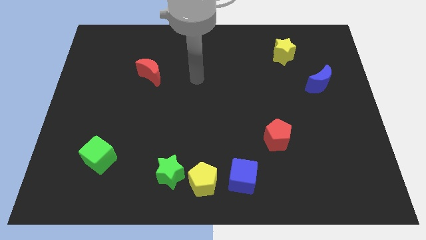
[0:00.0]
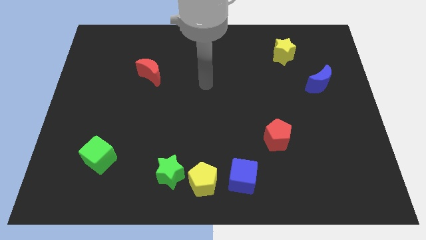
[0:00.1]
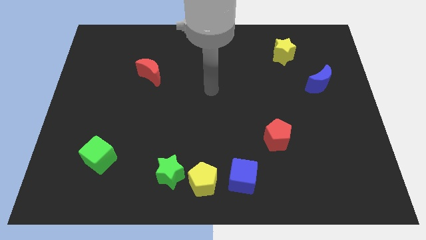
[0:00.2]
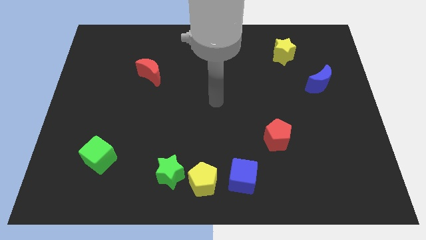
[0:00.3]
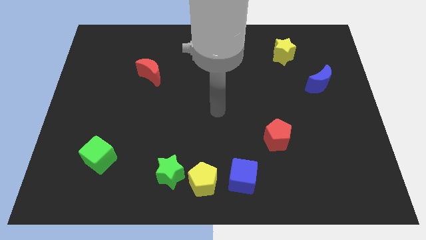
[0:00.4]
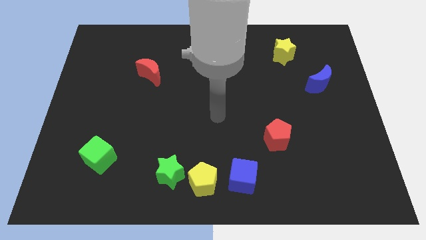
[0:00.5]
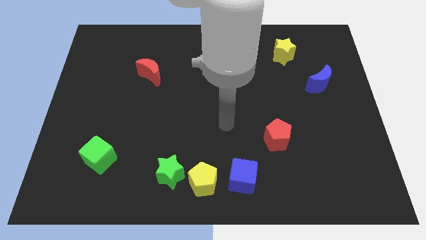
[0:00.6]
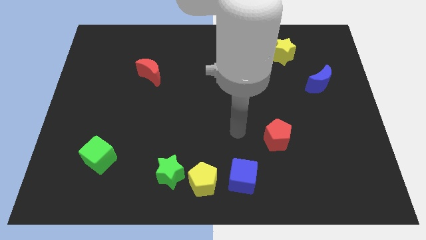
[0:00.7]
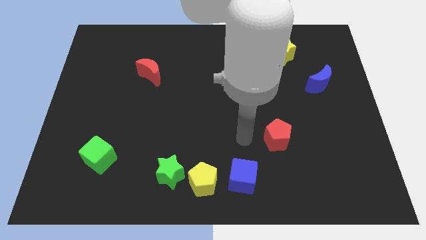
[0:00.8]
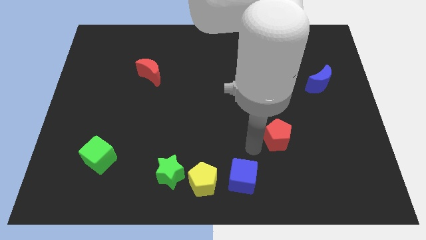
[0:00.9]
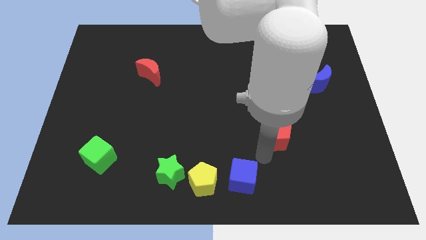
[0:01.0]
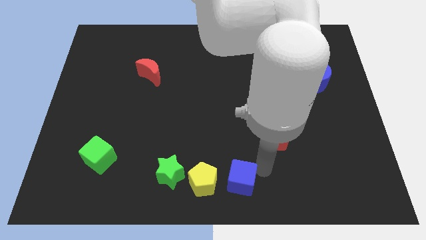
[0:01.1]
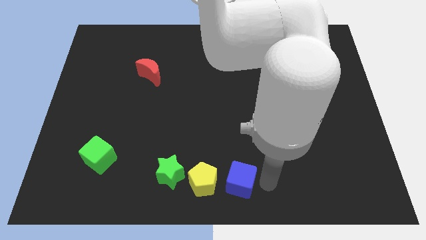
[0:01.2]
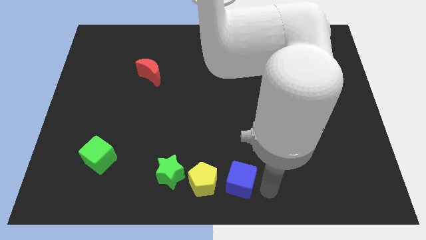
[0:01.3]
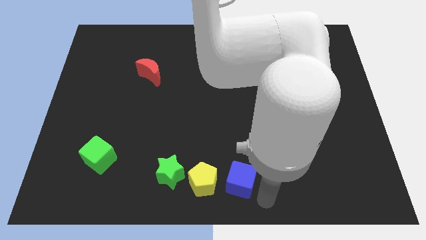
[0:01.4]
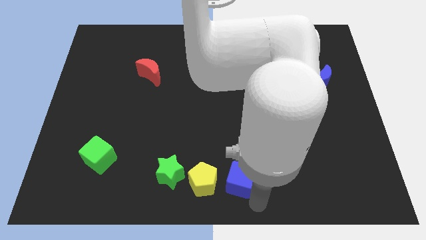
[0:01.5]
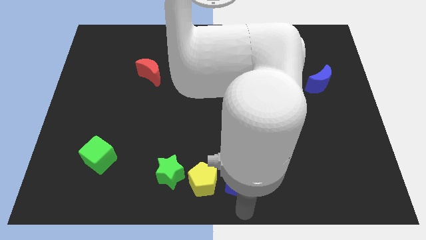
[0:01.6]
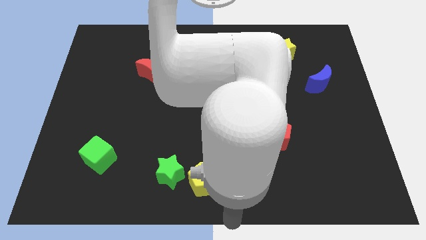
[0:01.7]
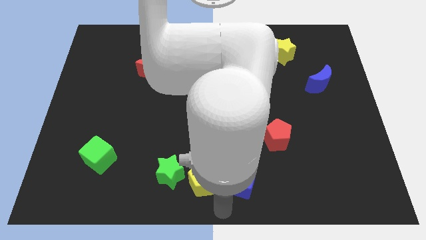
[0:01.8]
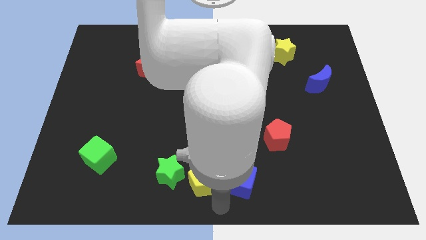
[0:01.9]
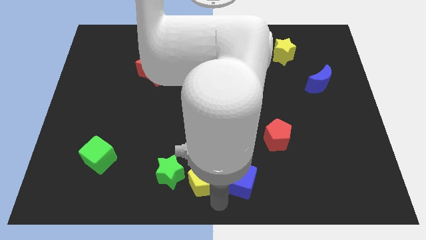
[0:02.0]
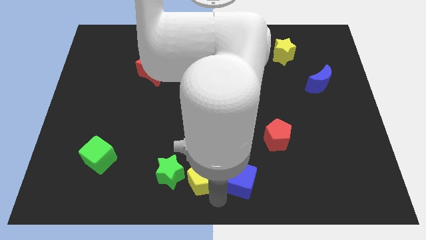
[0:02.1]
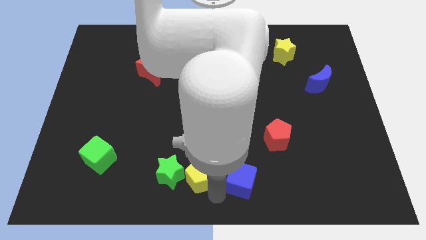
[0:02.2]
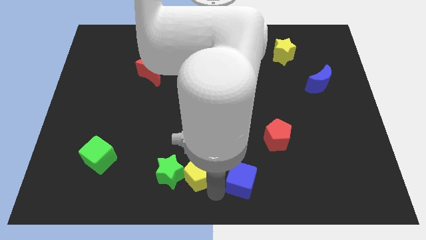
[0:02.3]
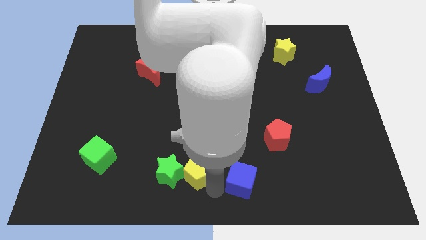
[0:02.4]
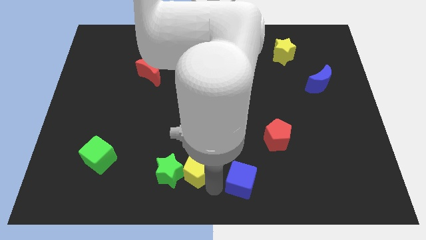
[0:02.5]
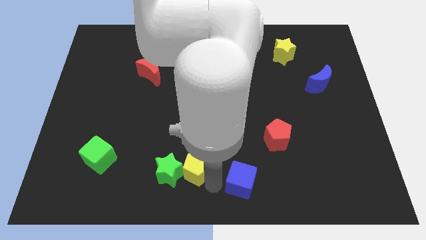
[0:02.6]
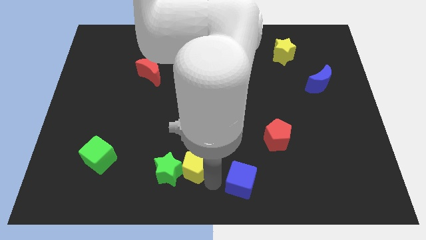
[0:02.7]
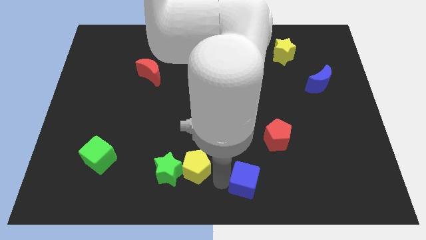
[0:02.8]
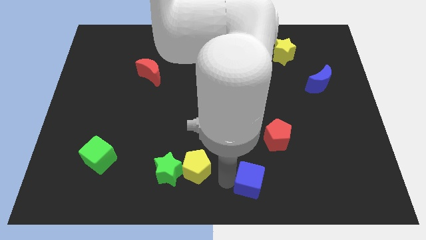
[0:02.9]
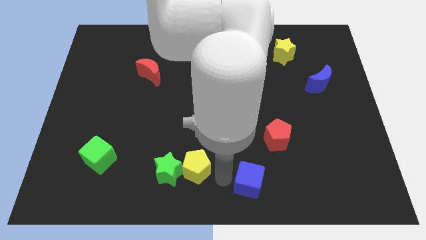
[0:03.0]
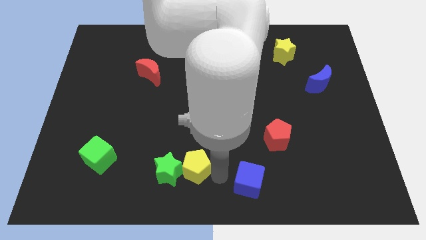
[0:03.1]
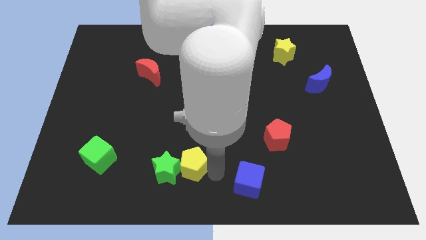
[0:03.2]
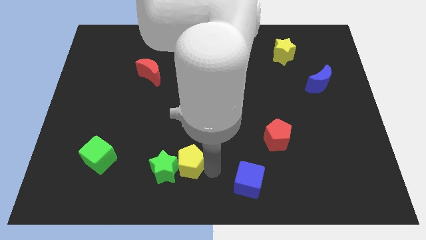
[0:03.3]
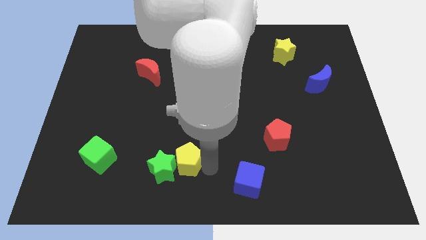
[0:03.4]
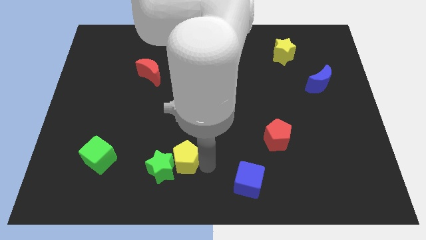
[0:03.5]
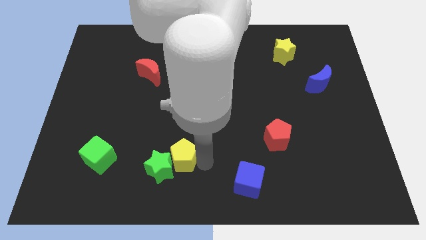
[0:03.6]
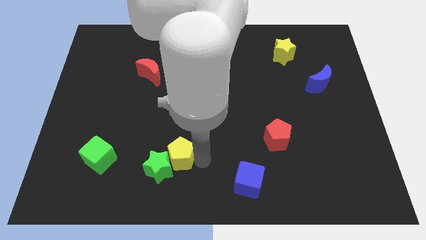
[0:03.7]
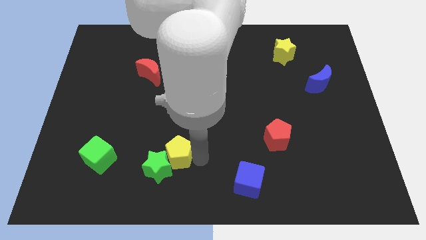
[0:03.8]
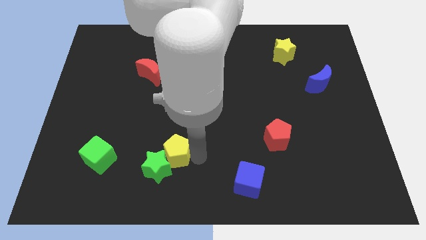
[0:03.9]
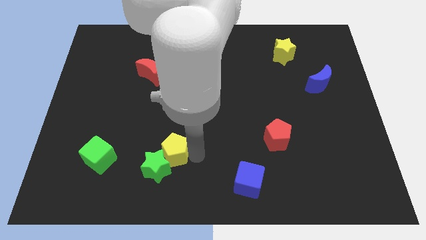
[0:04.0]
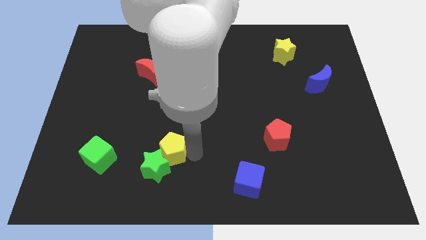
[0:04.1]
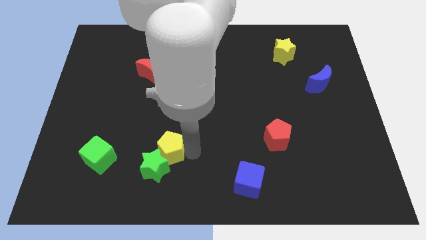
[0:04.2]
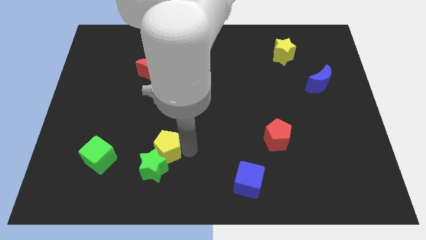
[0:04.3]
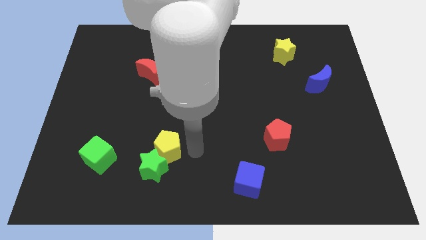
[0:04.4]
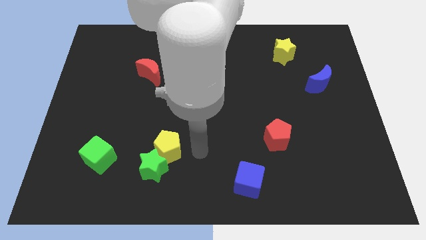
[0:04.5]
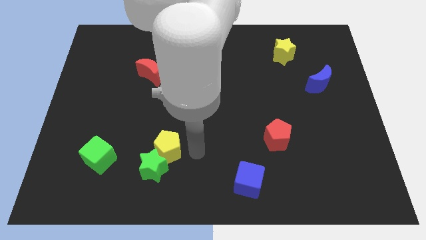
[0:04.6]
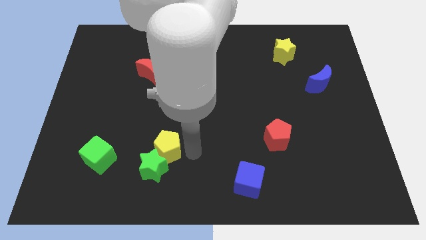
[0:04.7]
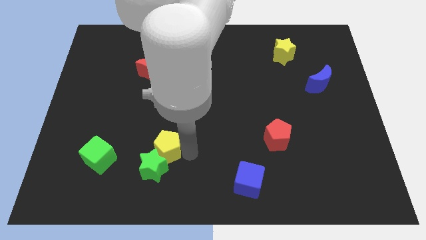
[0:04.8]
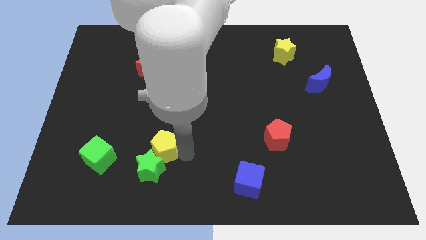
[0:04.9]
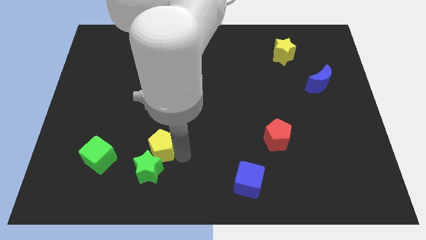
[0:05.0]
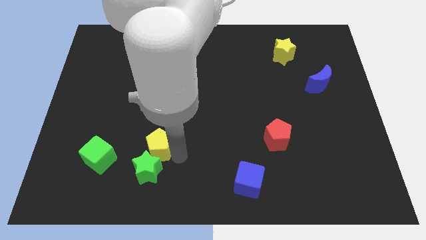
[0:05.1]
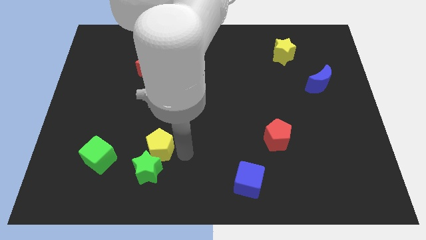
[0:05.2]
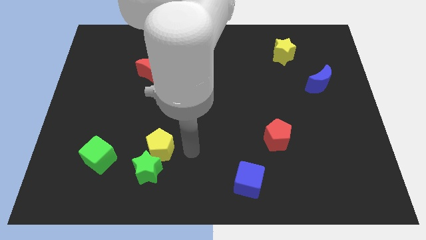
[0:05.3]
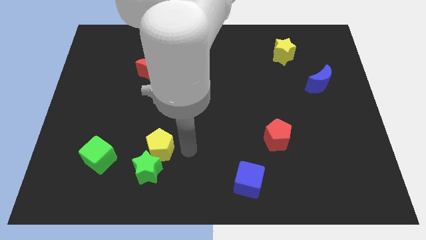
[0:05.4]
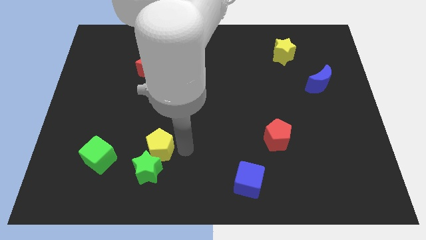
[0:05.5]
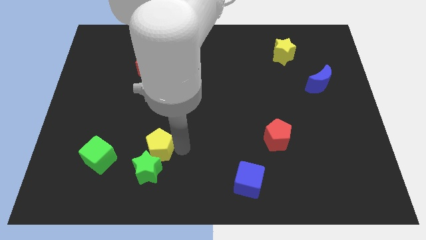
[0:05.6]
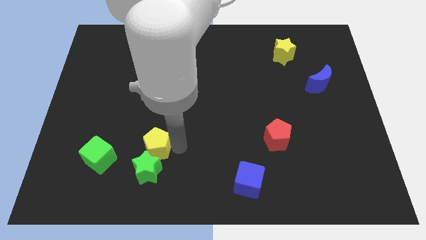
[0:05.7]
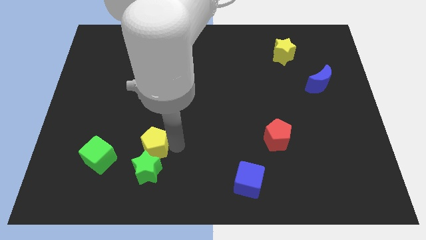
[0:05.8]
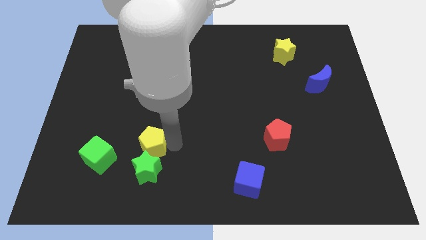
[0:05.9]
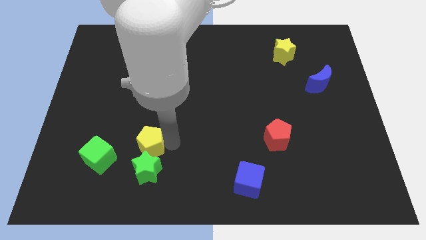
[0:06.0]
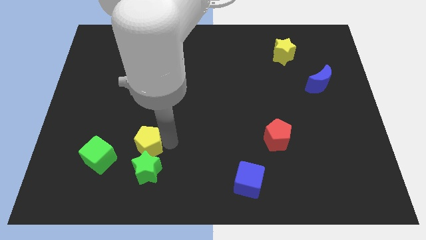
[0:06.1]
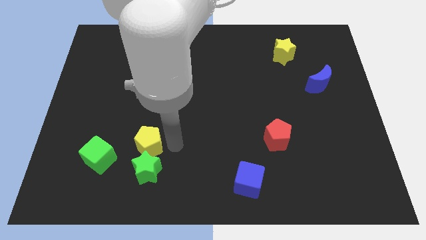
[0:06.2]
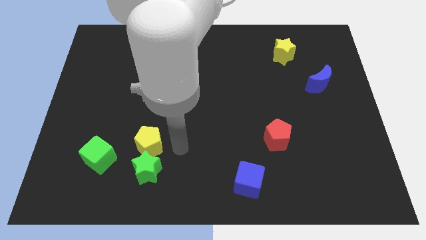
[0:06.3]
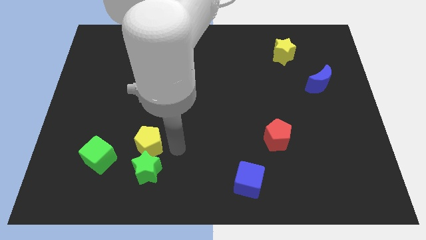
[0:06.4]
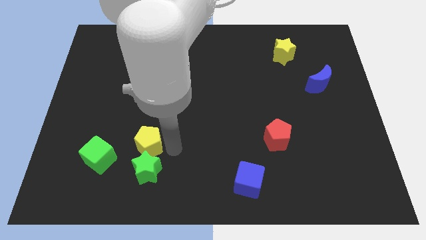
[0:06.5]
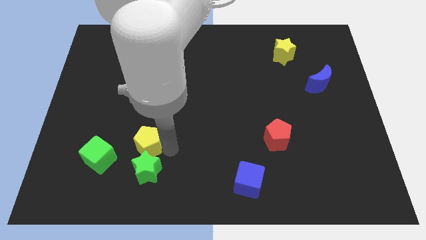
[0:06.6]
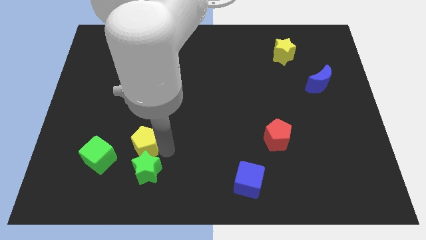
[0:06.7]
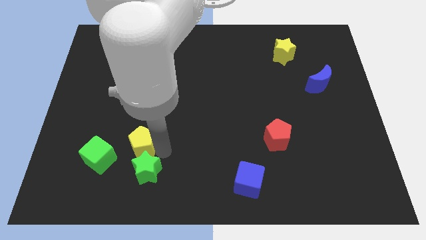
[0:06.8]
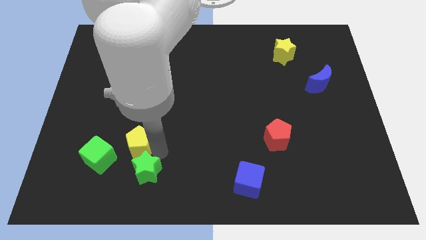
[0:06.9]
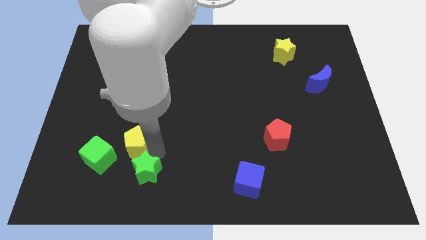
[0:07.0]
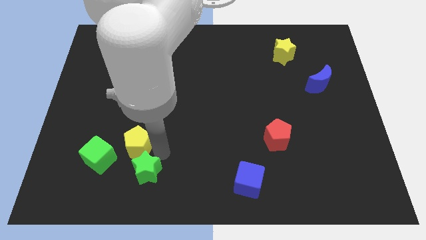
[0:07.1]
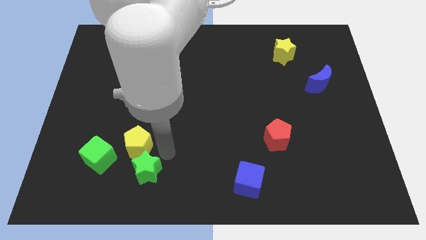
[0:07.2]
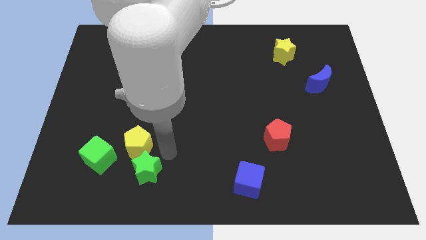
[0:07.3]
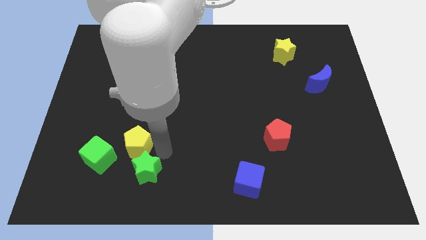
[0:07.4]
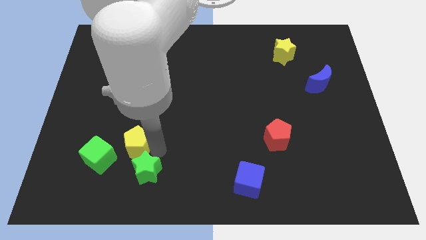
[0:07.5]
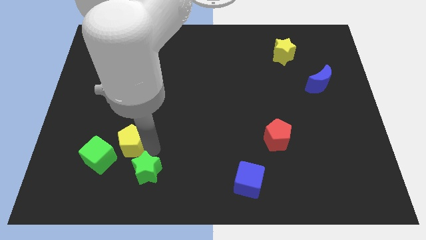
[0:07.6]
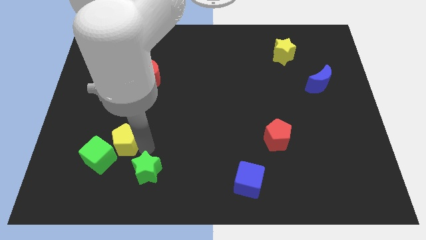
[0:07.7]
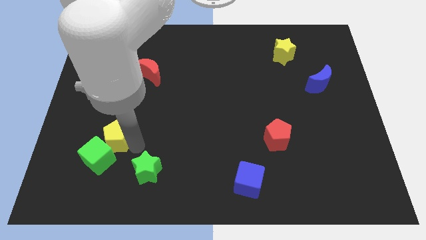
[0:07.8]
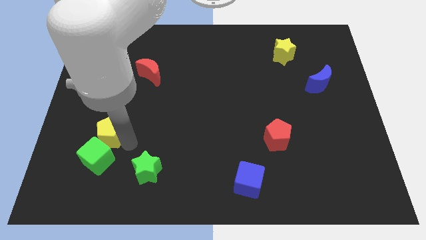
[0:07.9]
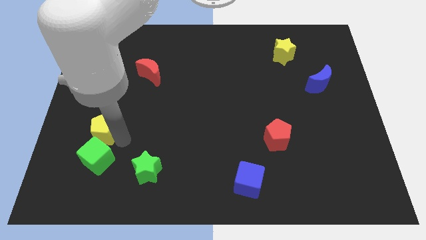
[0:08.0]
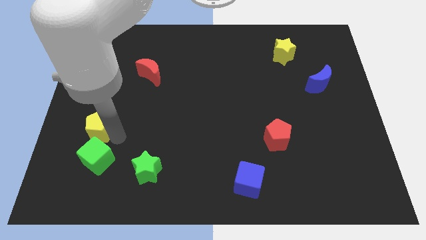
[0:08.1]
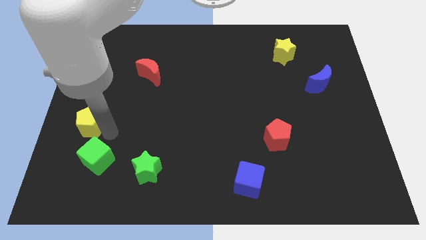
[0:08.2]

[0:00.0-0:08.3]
put the yellow pentagon to the left side
